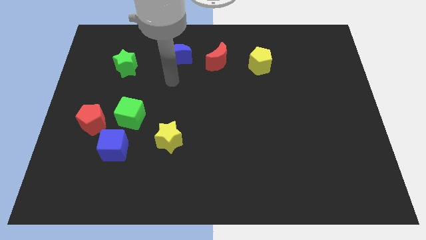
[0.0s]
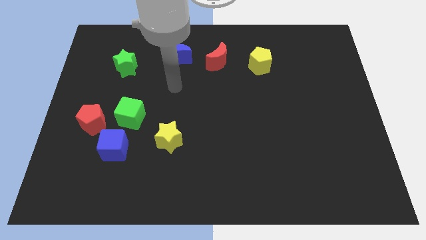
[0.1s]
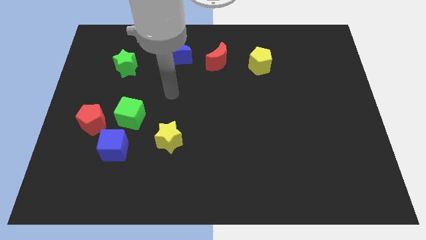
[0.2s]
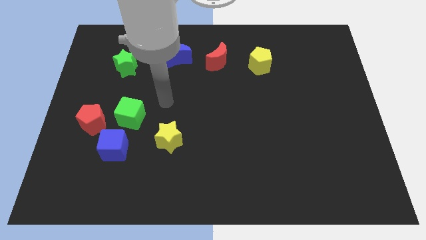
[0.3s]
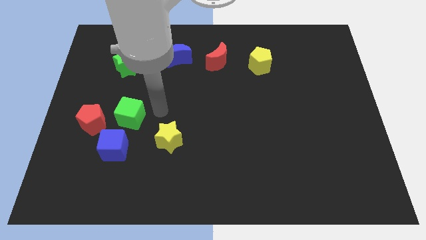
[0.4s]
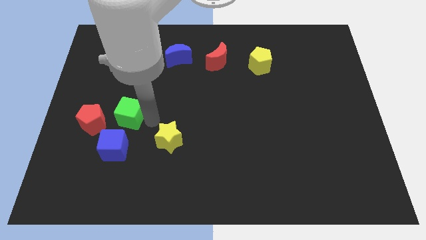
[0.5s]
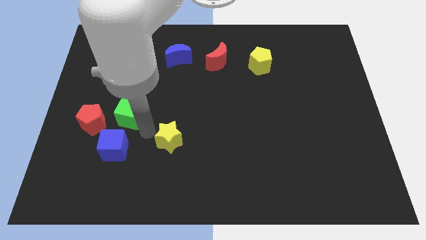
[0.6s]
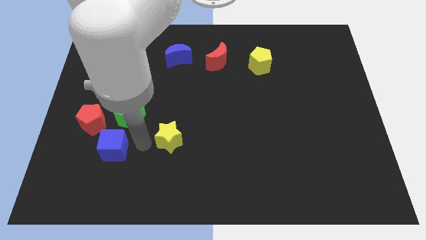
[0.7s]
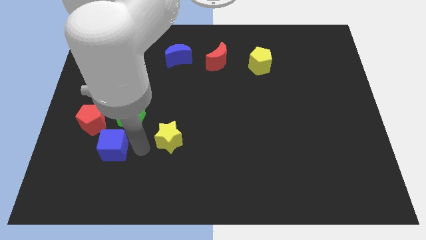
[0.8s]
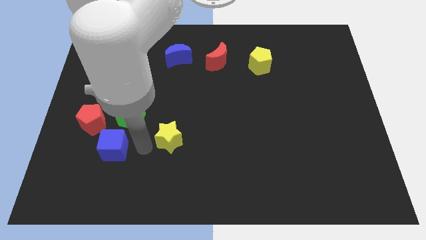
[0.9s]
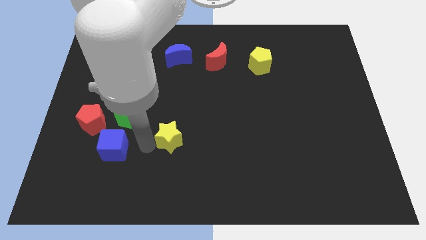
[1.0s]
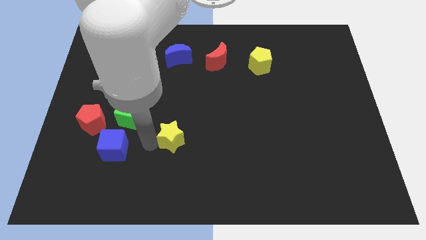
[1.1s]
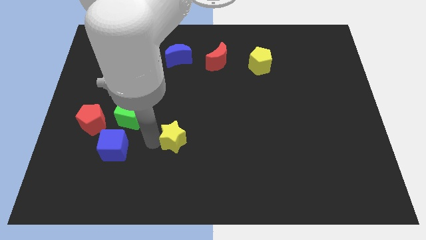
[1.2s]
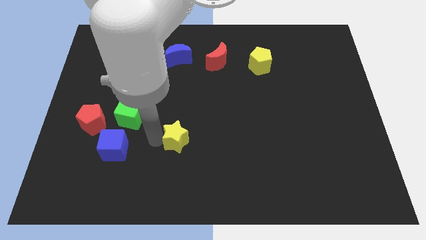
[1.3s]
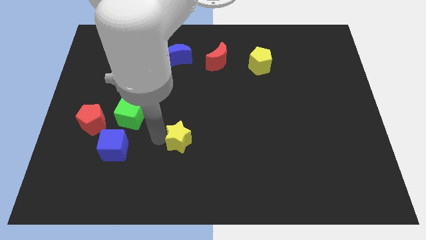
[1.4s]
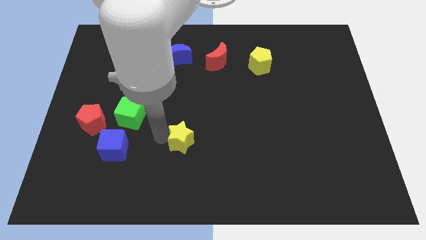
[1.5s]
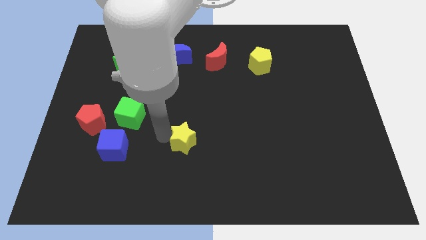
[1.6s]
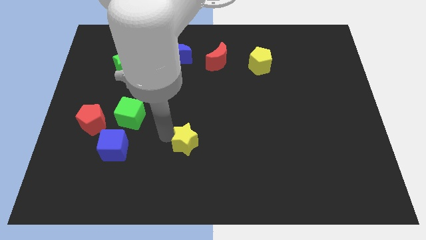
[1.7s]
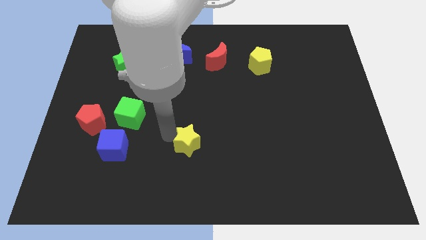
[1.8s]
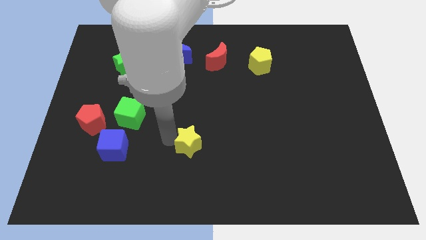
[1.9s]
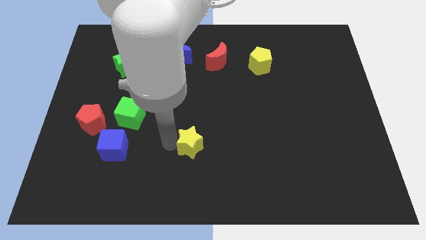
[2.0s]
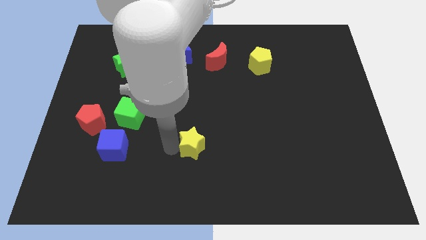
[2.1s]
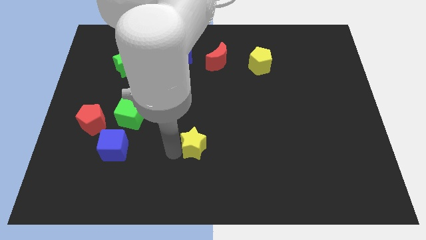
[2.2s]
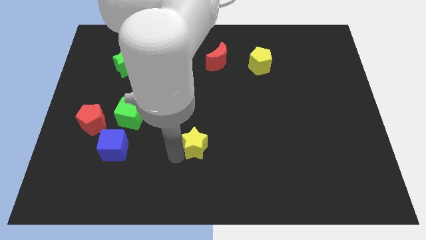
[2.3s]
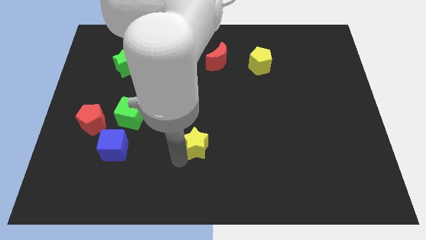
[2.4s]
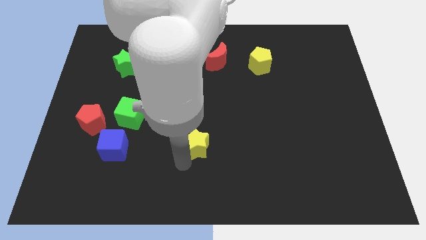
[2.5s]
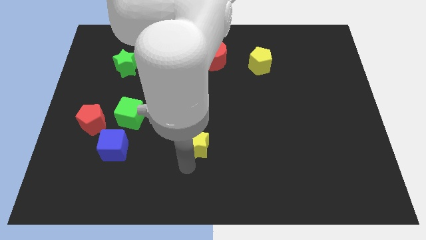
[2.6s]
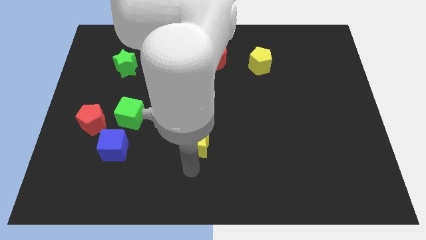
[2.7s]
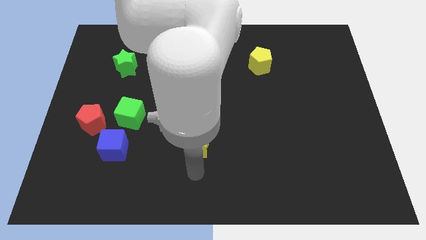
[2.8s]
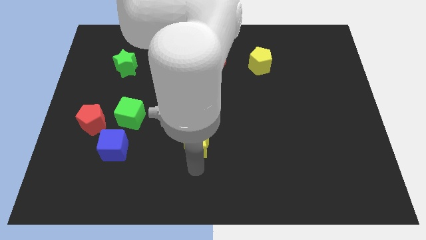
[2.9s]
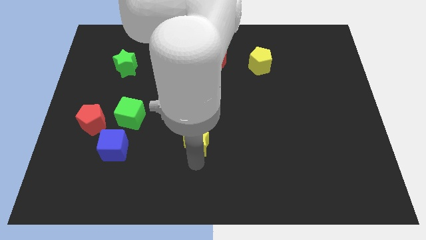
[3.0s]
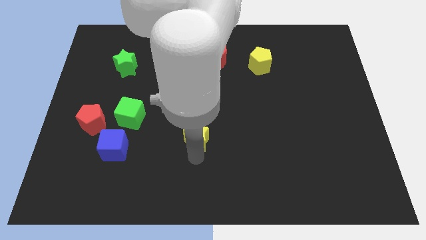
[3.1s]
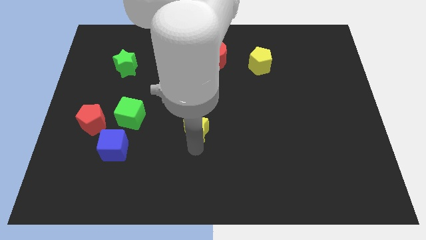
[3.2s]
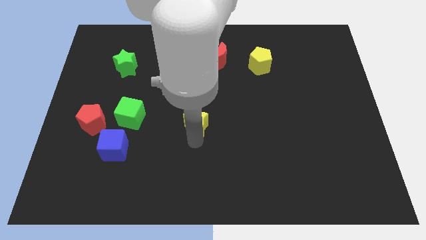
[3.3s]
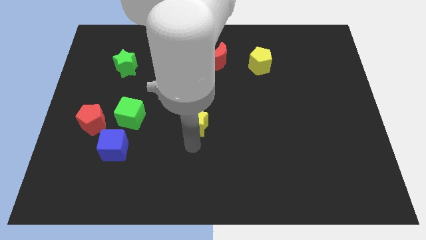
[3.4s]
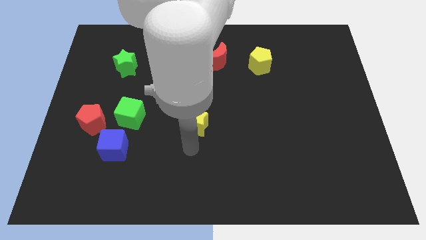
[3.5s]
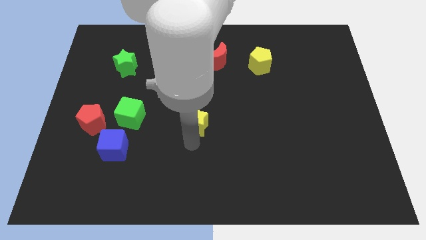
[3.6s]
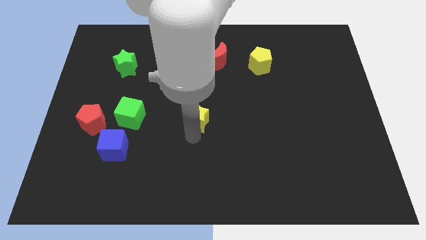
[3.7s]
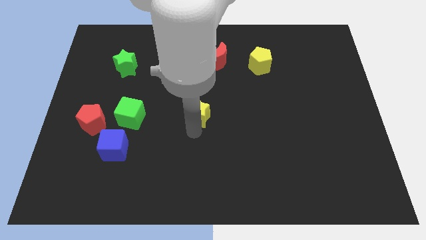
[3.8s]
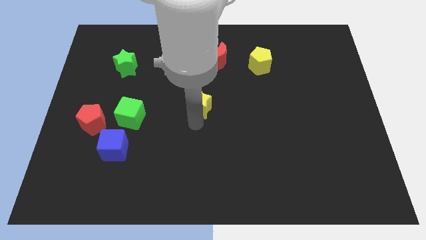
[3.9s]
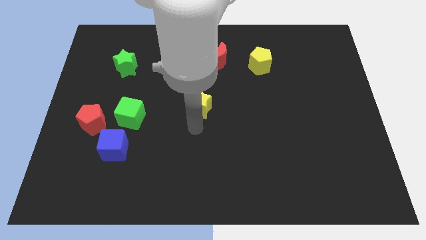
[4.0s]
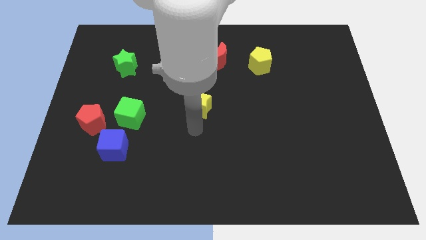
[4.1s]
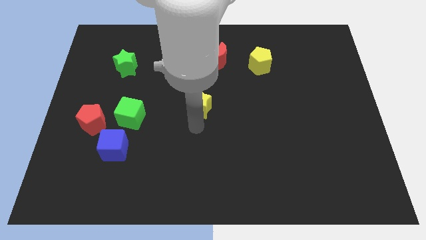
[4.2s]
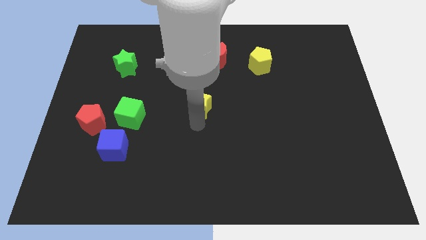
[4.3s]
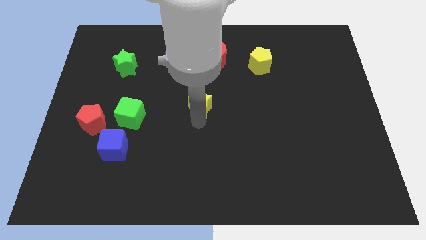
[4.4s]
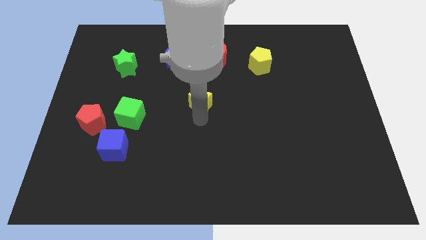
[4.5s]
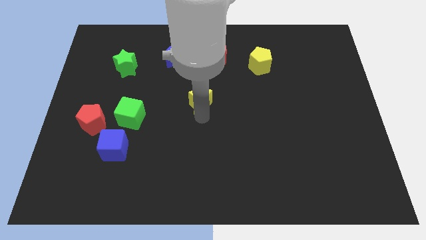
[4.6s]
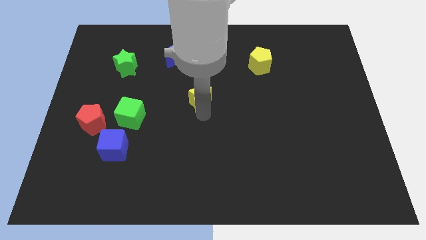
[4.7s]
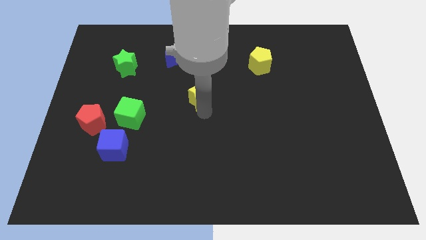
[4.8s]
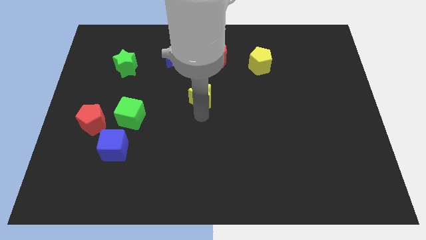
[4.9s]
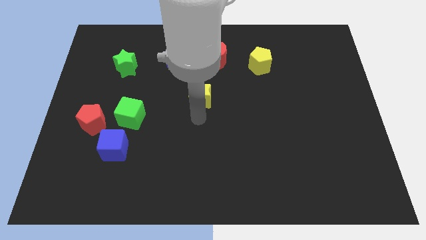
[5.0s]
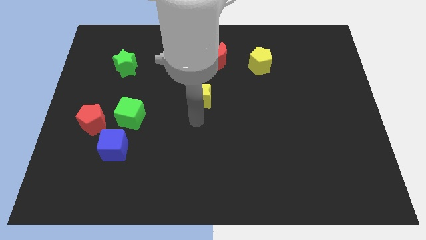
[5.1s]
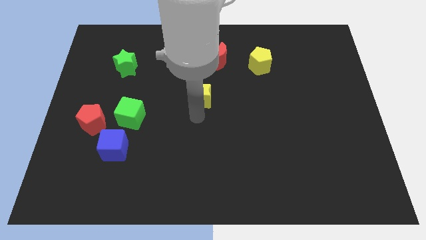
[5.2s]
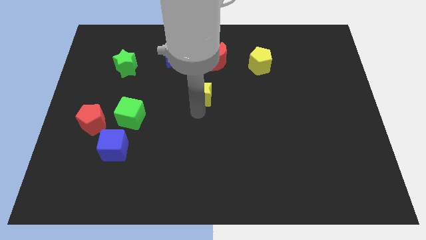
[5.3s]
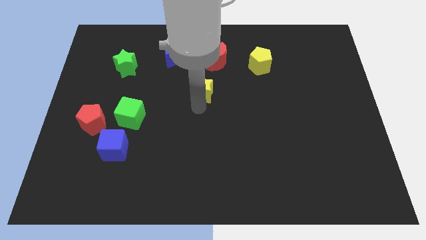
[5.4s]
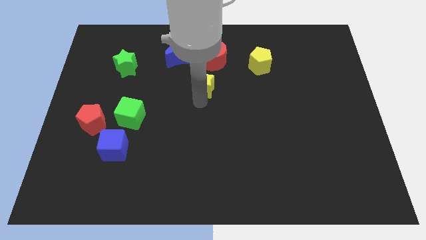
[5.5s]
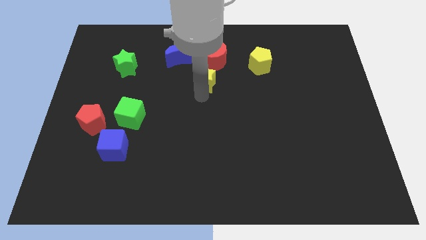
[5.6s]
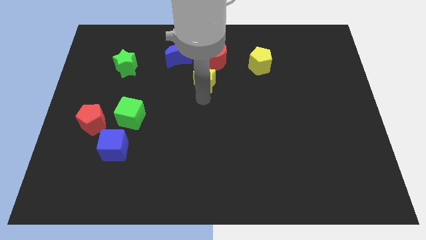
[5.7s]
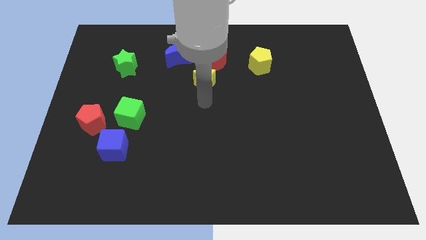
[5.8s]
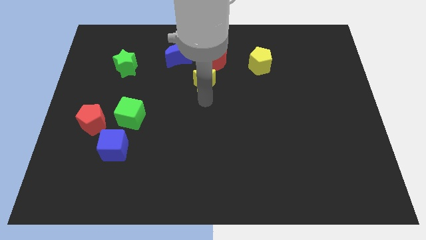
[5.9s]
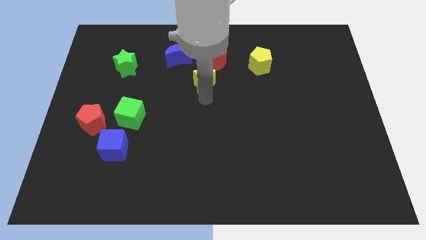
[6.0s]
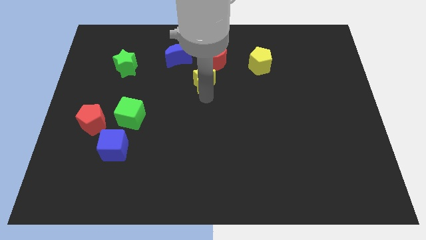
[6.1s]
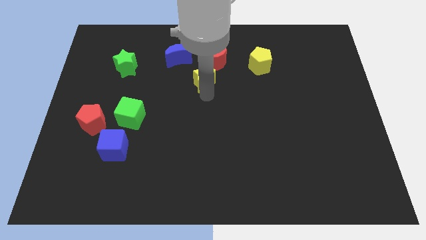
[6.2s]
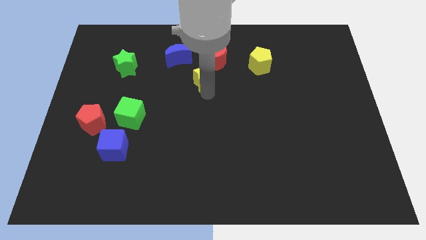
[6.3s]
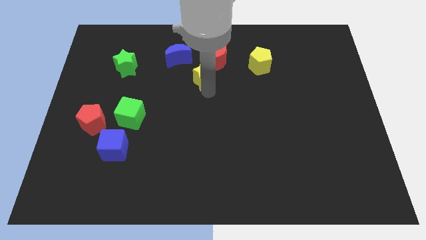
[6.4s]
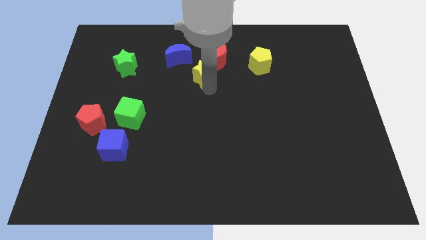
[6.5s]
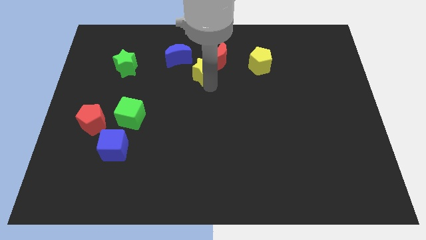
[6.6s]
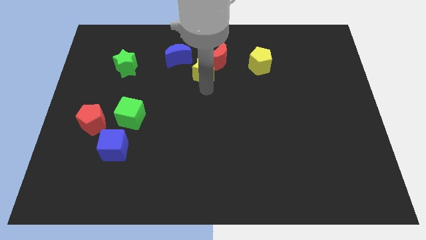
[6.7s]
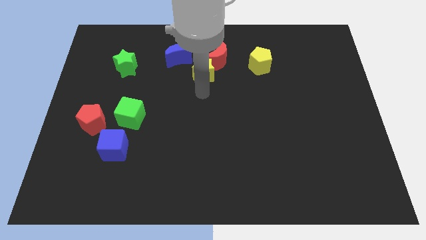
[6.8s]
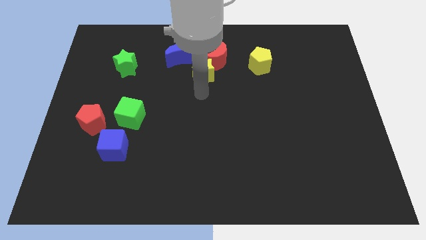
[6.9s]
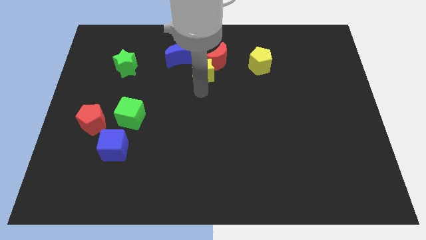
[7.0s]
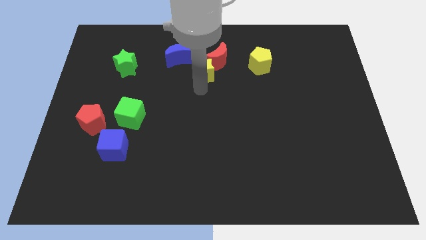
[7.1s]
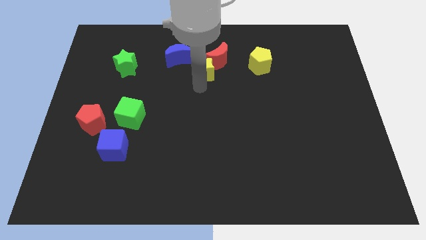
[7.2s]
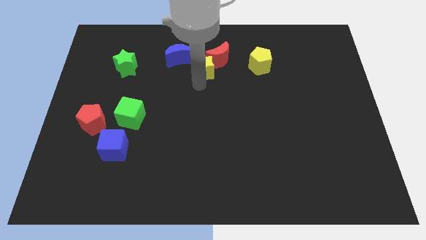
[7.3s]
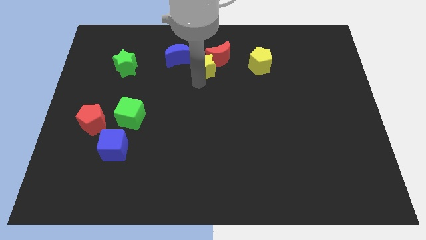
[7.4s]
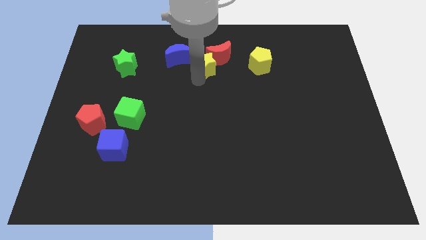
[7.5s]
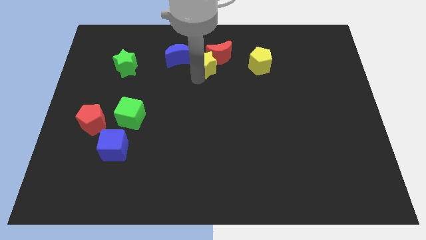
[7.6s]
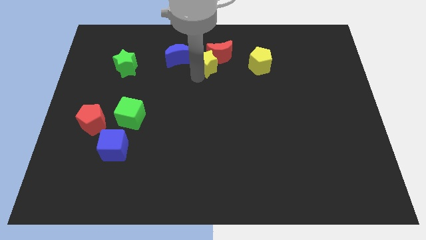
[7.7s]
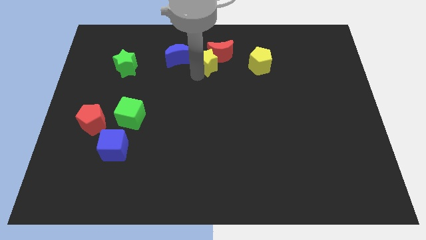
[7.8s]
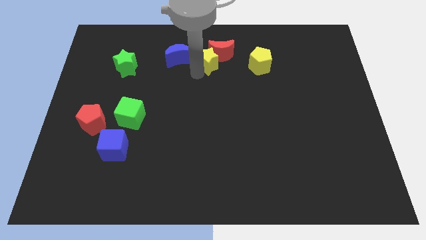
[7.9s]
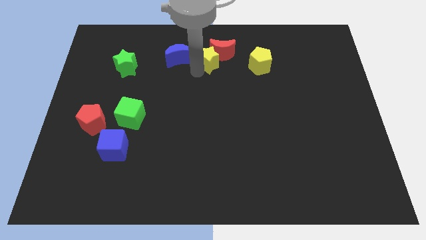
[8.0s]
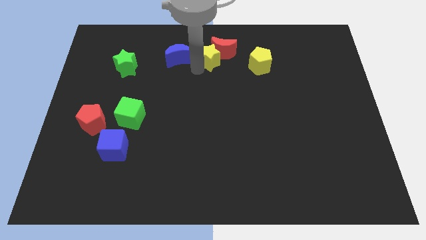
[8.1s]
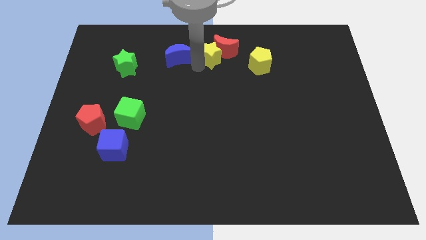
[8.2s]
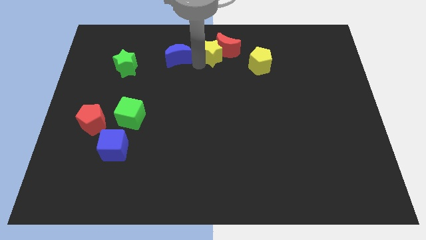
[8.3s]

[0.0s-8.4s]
move the yellow star to the top side
